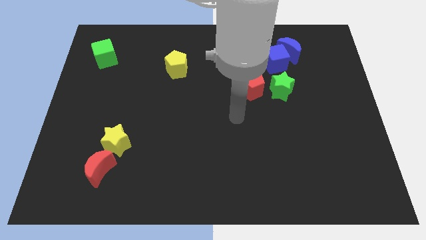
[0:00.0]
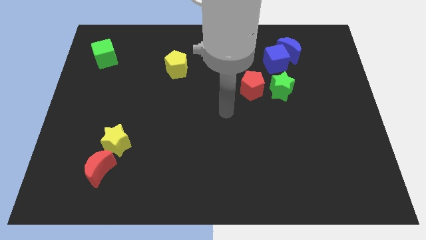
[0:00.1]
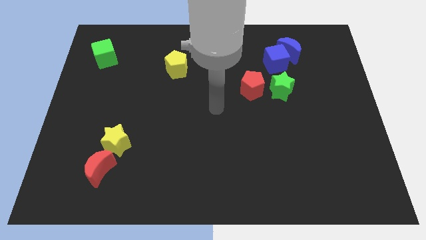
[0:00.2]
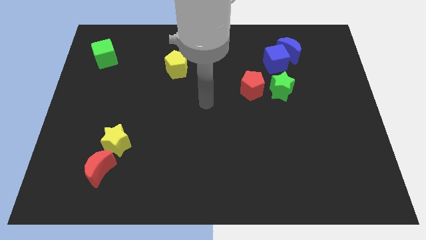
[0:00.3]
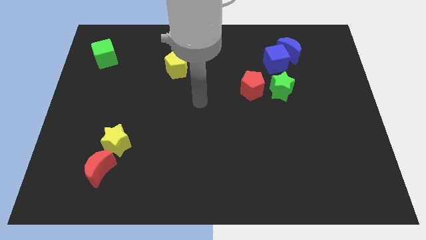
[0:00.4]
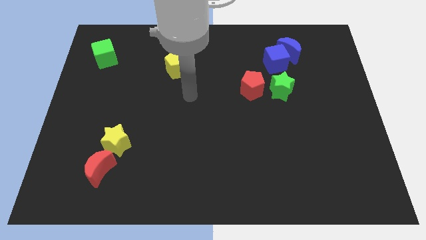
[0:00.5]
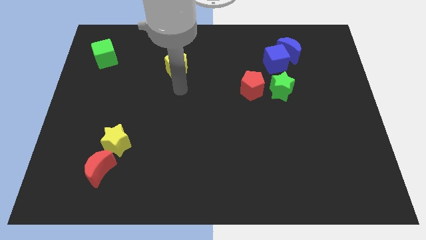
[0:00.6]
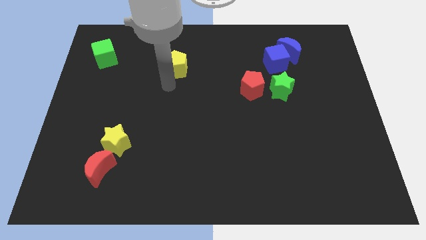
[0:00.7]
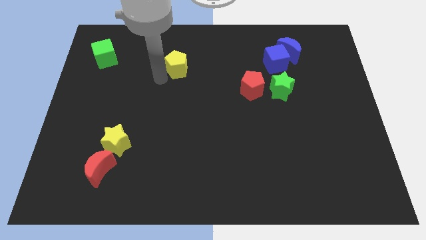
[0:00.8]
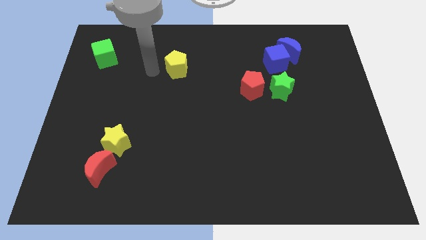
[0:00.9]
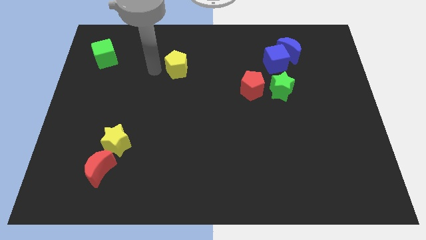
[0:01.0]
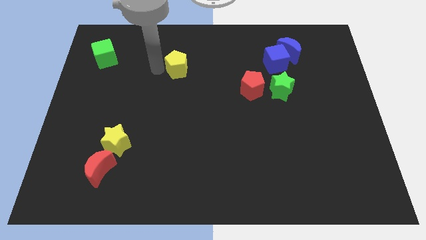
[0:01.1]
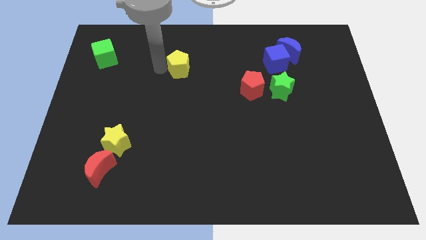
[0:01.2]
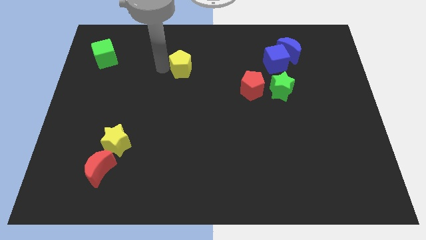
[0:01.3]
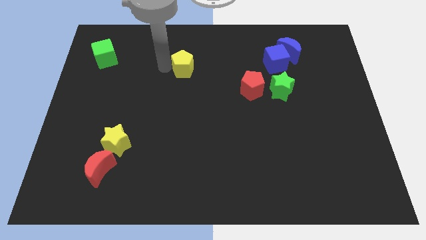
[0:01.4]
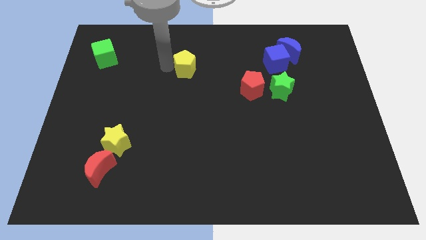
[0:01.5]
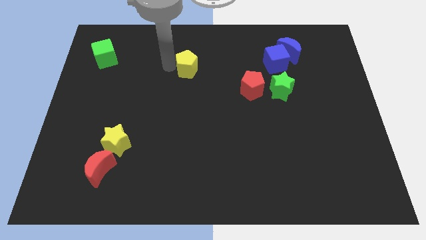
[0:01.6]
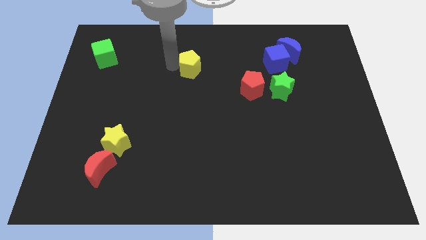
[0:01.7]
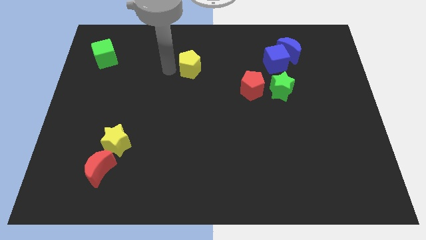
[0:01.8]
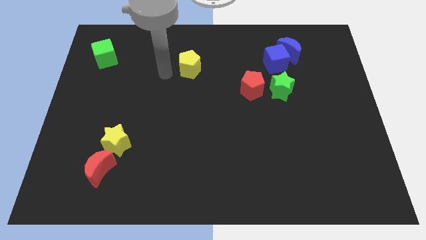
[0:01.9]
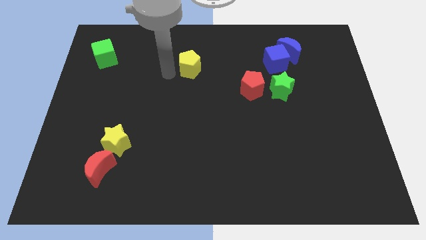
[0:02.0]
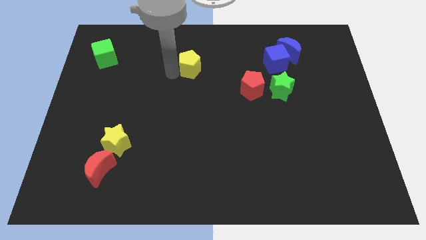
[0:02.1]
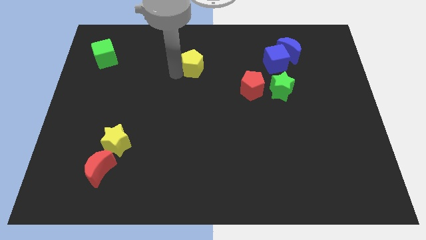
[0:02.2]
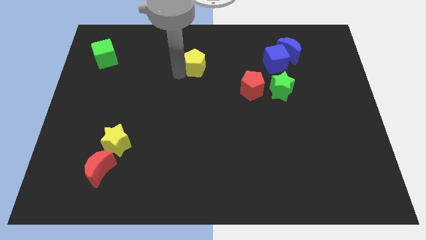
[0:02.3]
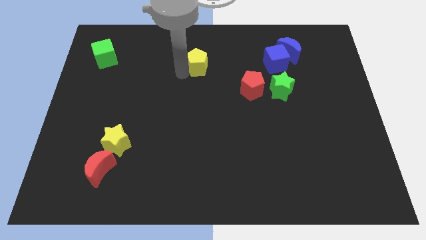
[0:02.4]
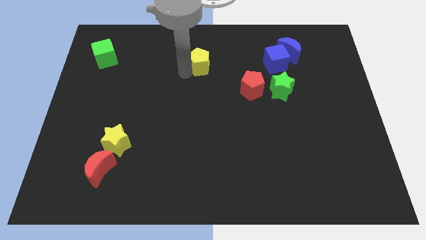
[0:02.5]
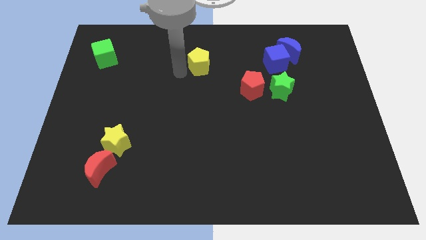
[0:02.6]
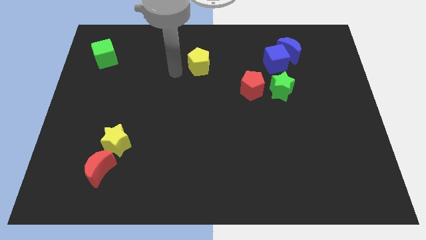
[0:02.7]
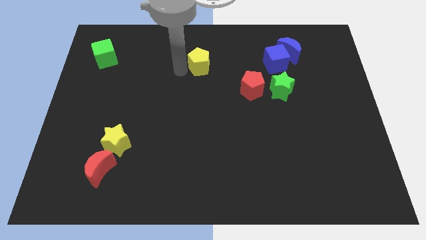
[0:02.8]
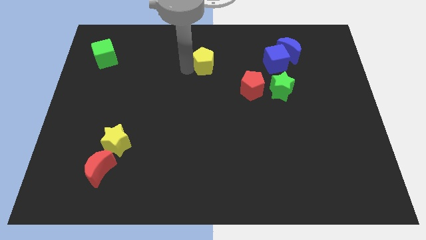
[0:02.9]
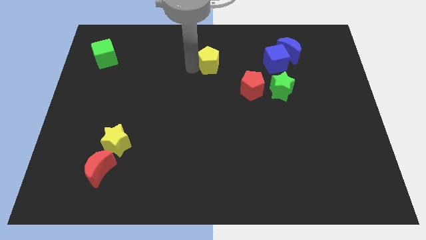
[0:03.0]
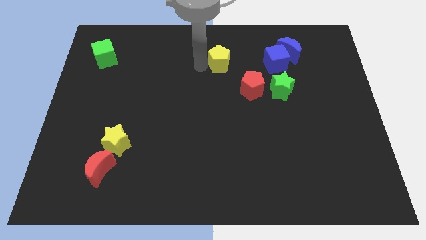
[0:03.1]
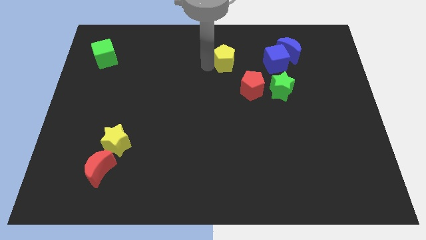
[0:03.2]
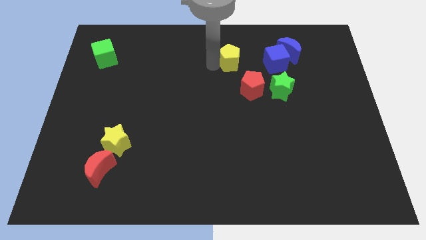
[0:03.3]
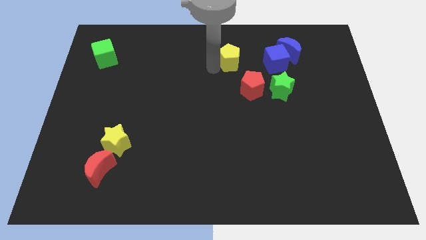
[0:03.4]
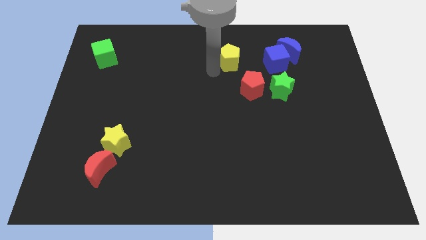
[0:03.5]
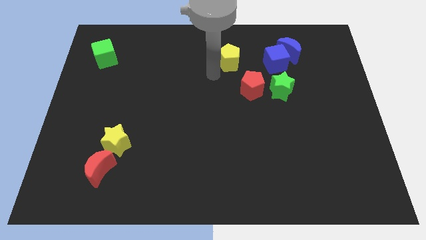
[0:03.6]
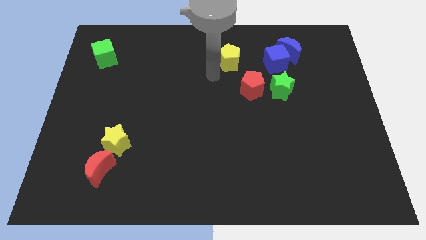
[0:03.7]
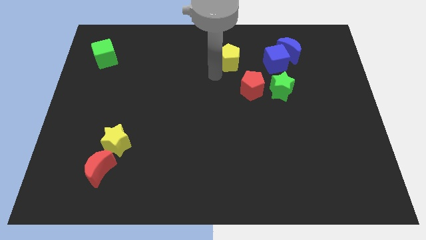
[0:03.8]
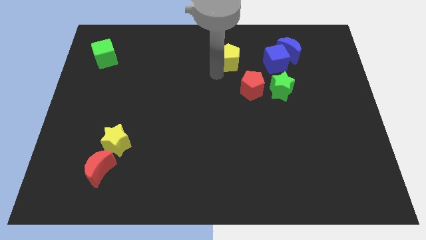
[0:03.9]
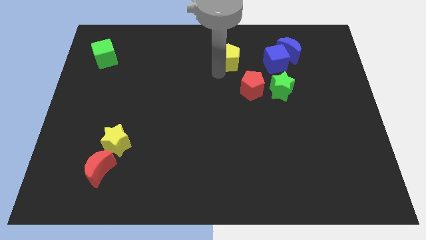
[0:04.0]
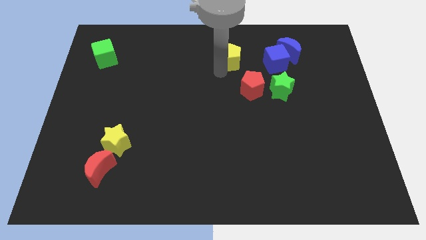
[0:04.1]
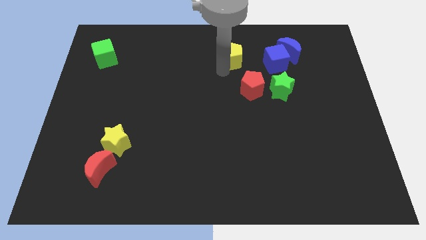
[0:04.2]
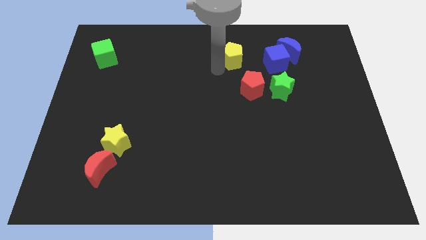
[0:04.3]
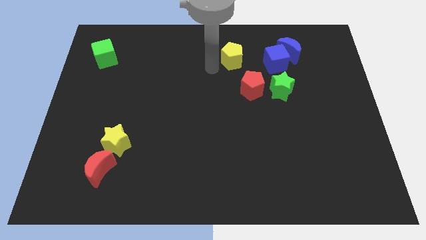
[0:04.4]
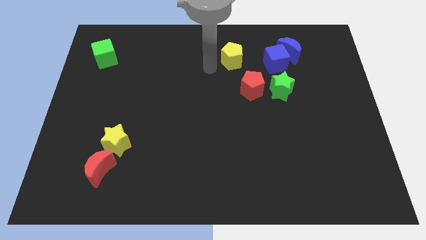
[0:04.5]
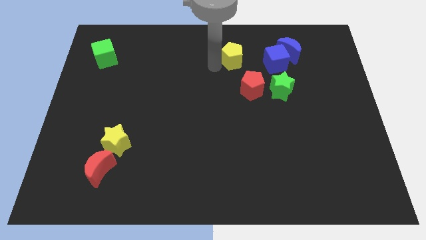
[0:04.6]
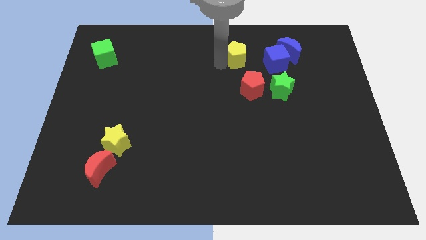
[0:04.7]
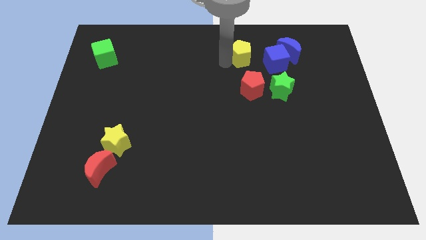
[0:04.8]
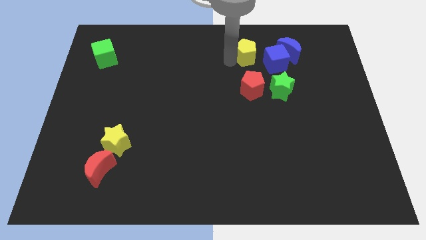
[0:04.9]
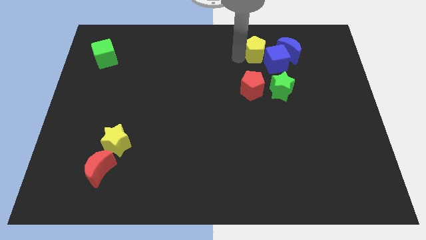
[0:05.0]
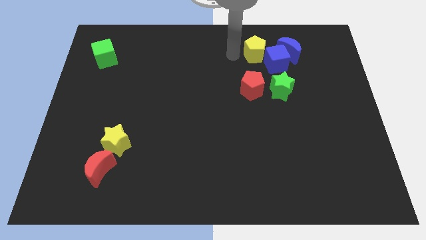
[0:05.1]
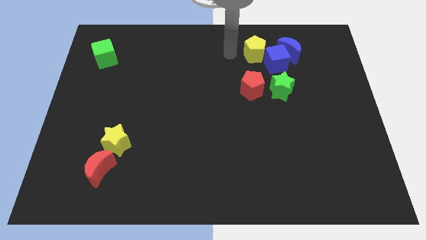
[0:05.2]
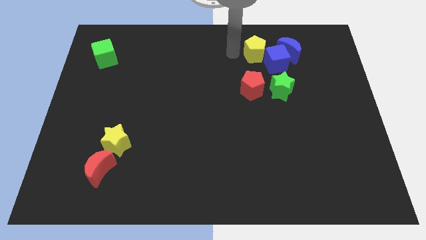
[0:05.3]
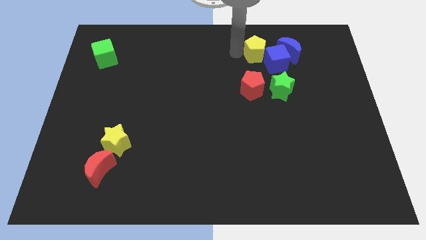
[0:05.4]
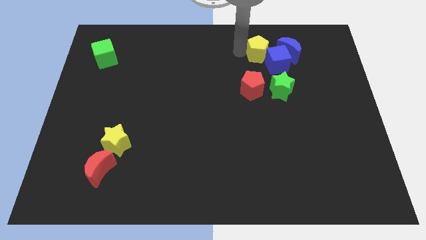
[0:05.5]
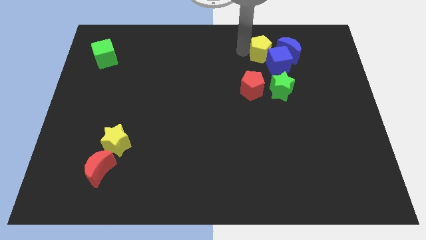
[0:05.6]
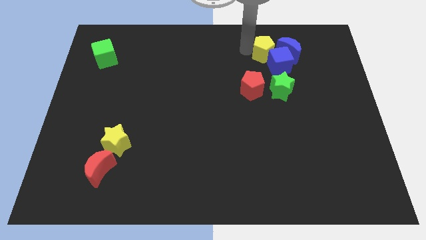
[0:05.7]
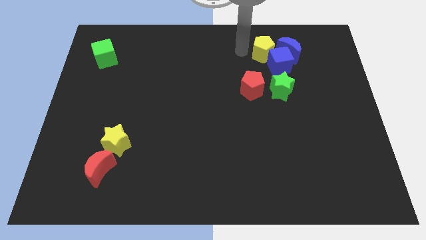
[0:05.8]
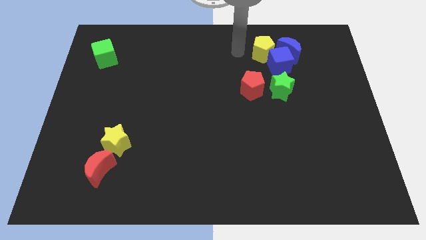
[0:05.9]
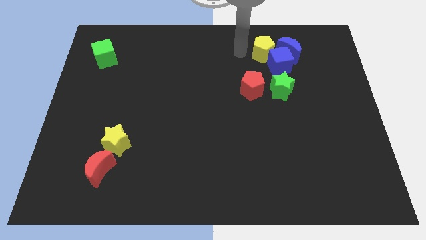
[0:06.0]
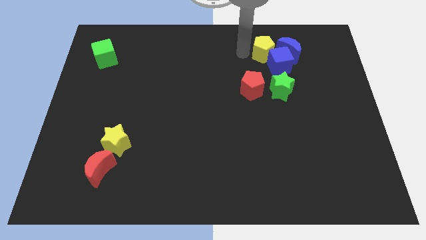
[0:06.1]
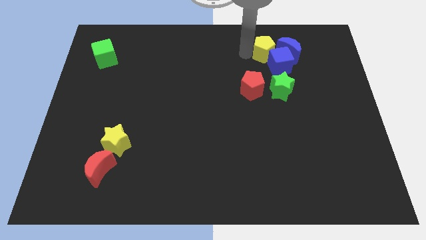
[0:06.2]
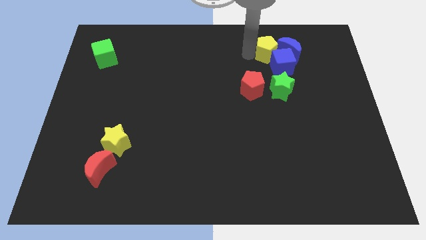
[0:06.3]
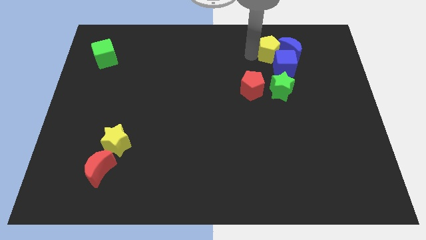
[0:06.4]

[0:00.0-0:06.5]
push the yellow pentagon close to the blue moon
